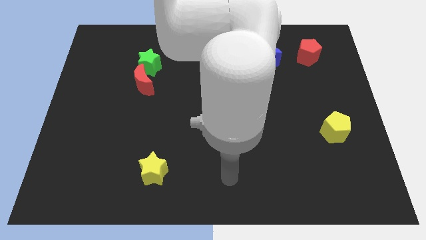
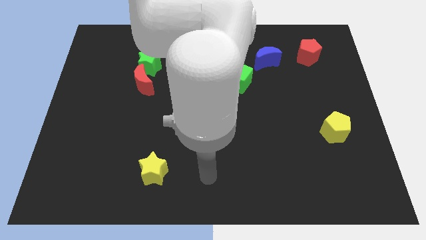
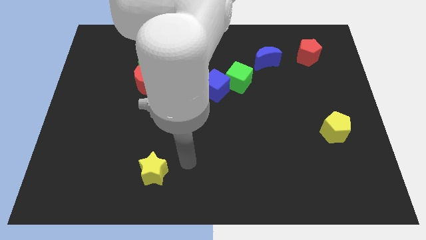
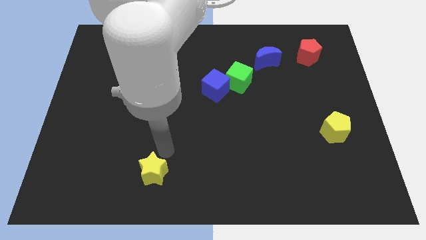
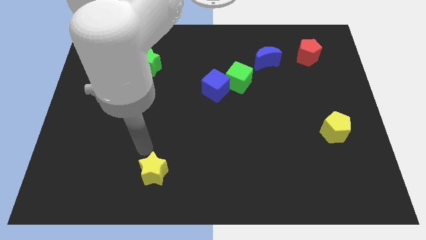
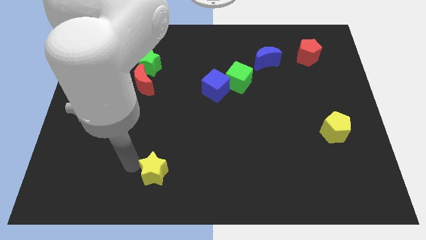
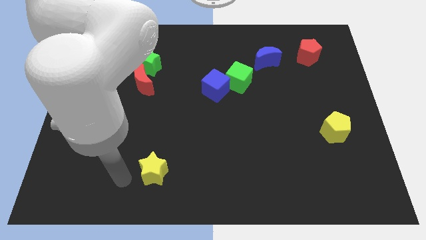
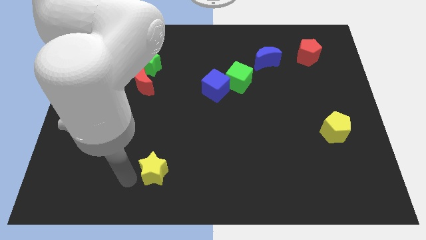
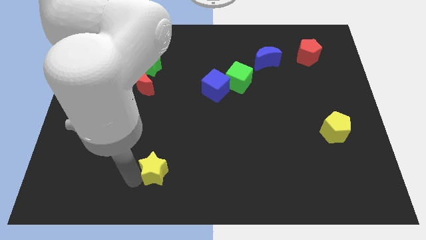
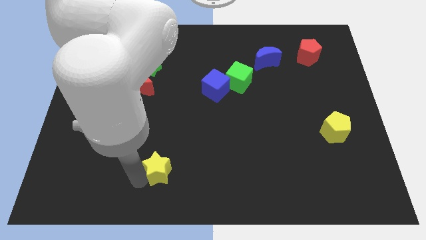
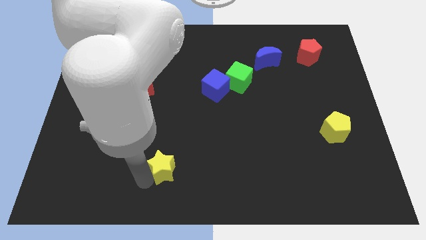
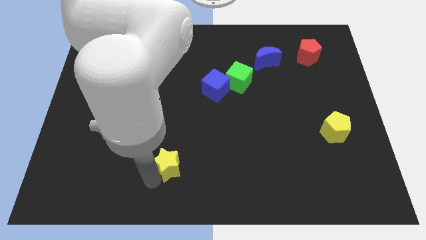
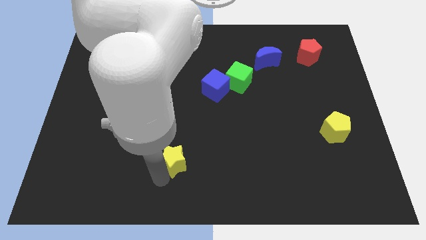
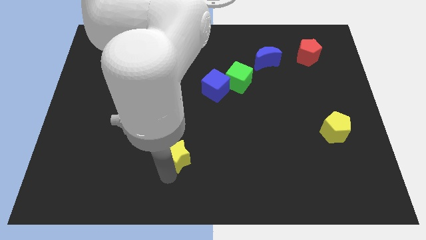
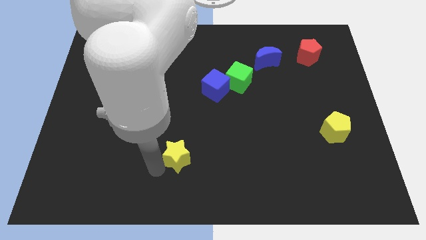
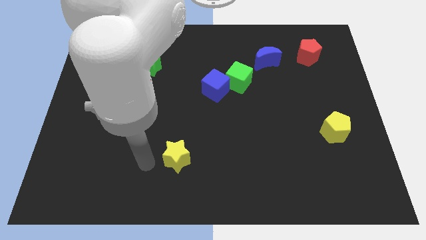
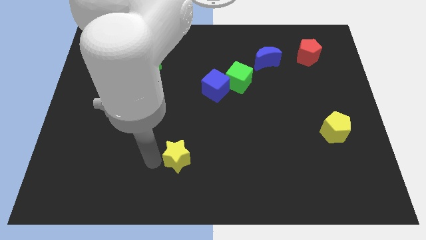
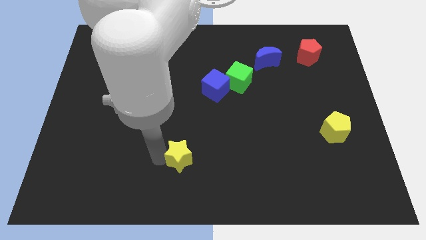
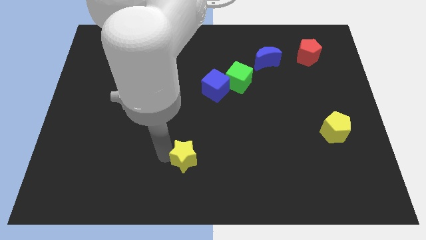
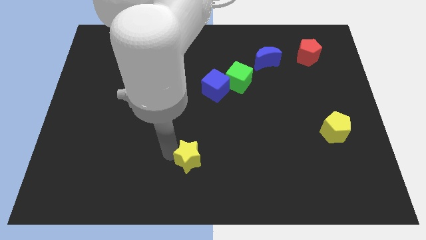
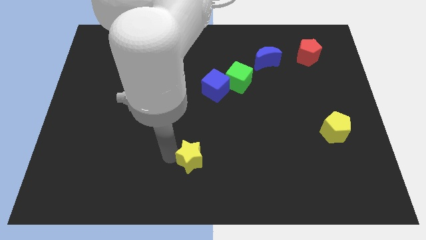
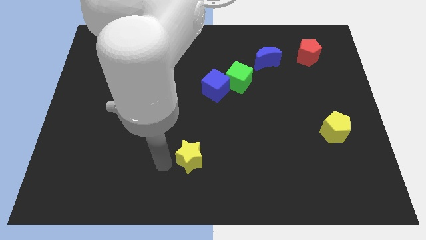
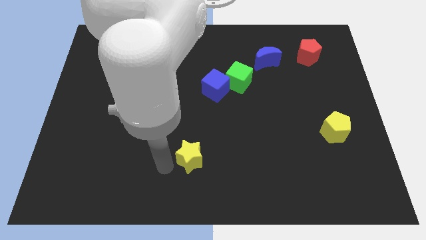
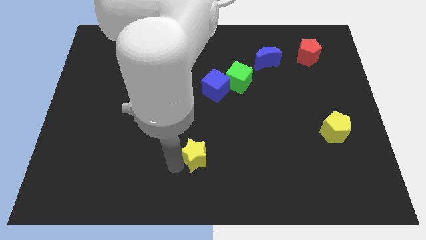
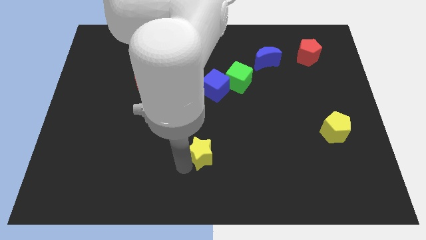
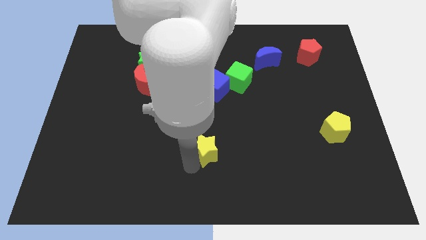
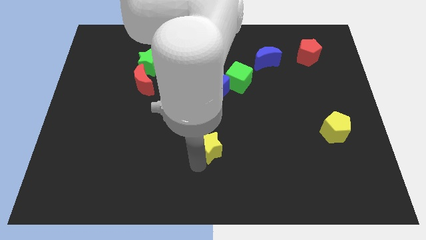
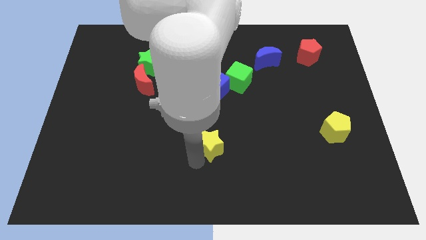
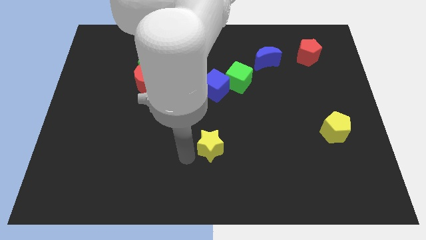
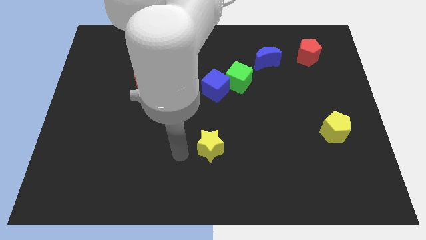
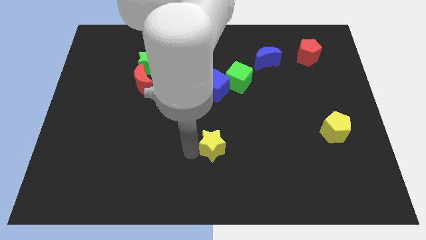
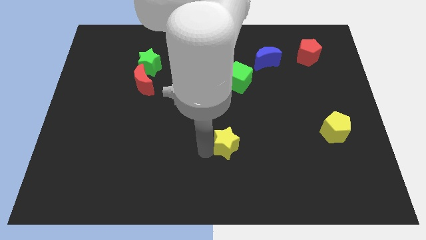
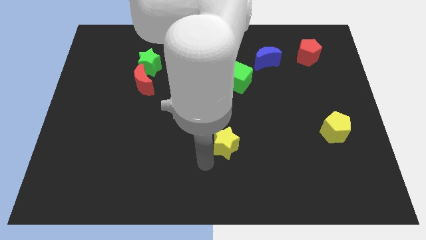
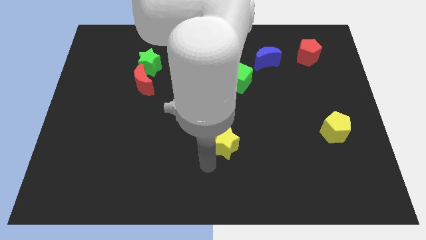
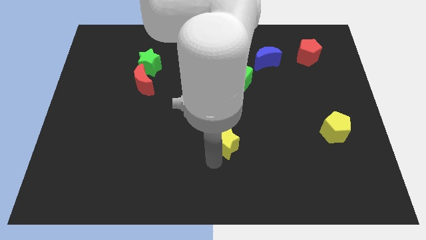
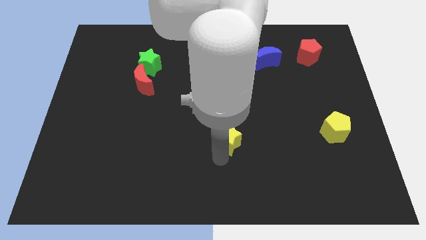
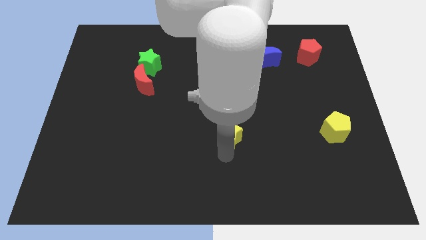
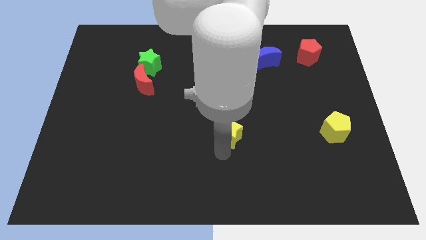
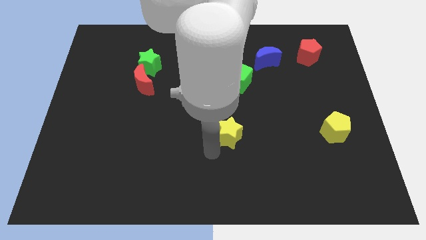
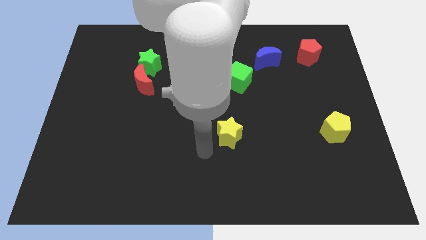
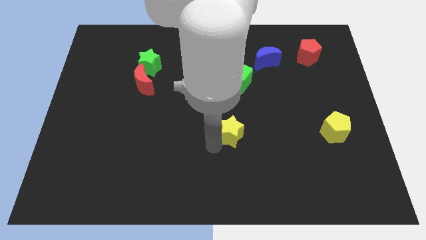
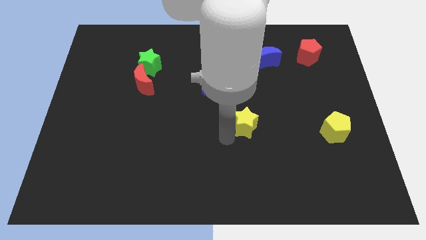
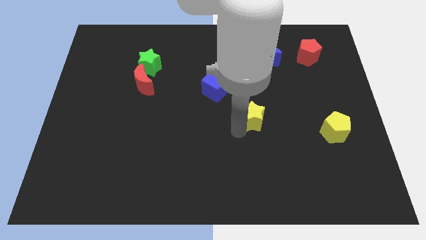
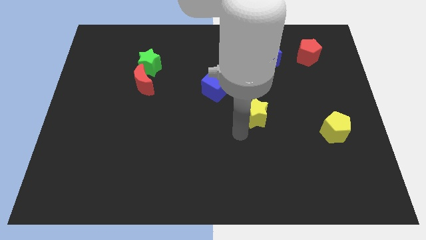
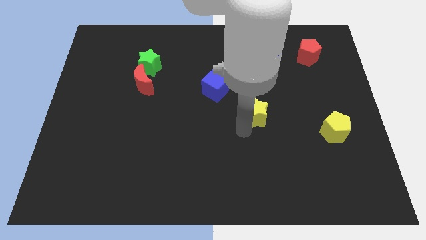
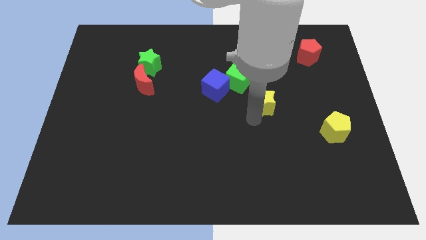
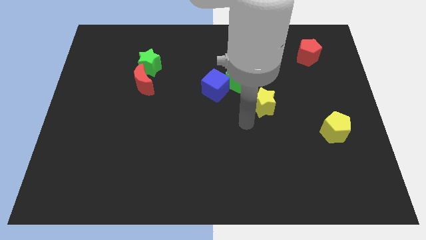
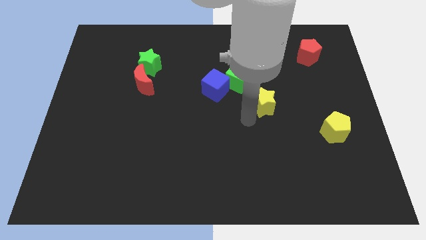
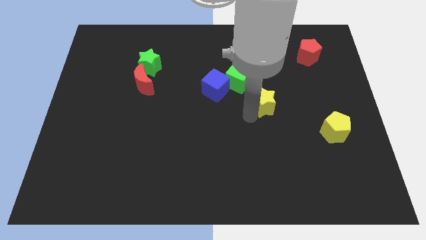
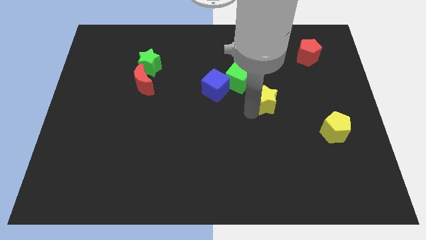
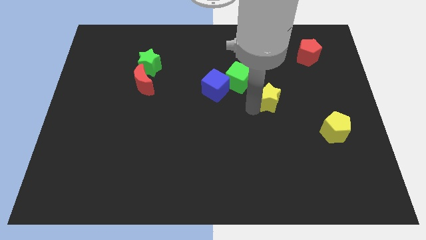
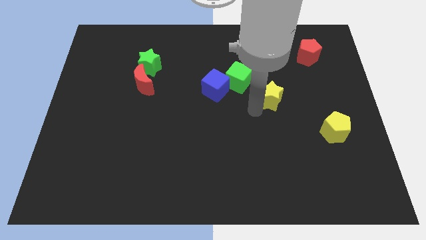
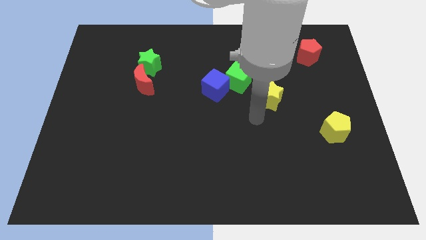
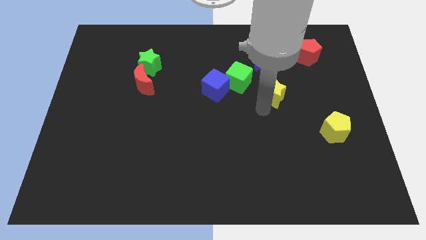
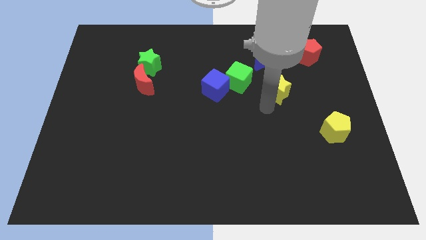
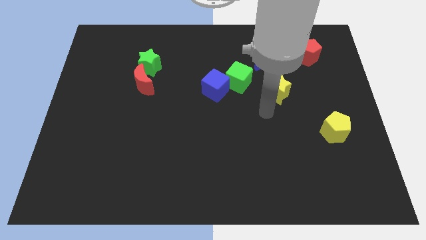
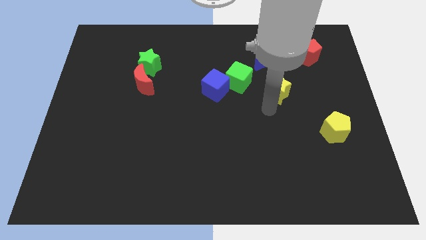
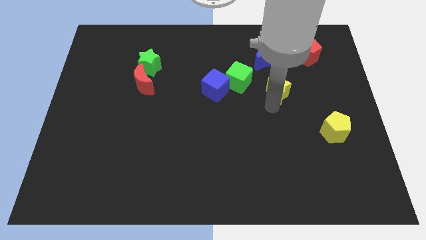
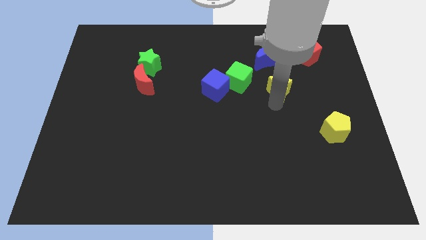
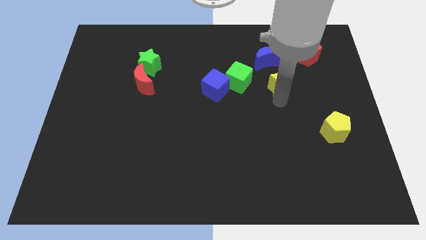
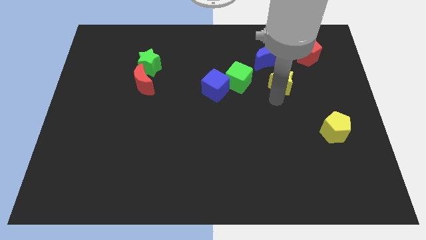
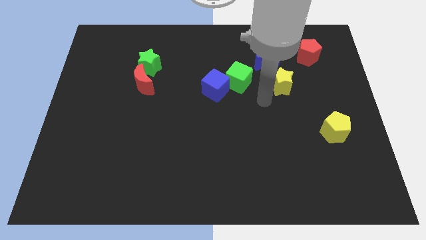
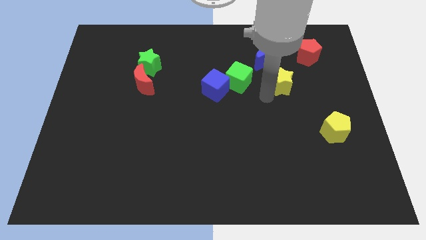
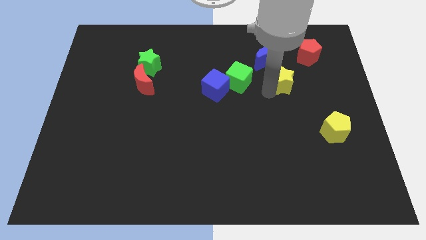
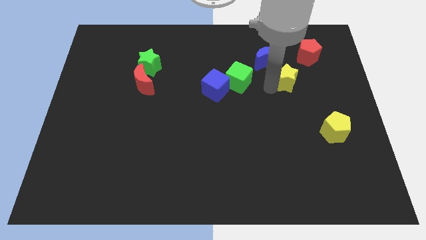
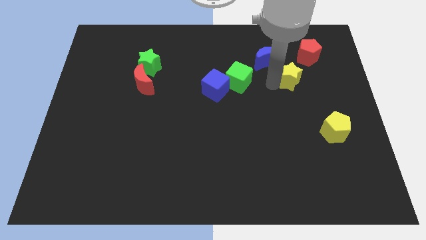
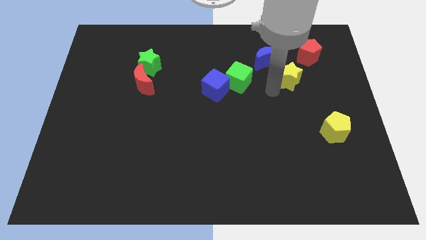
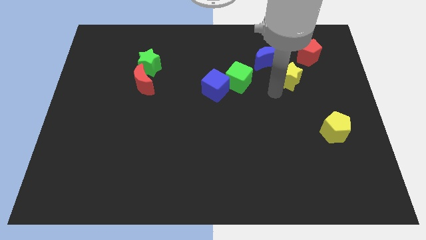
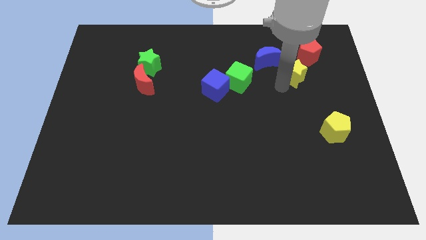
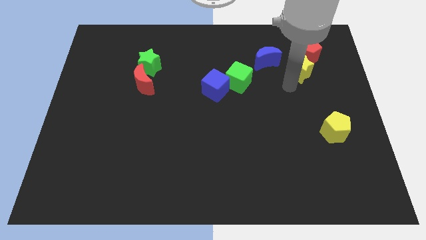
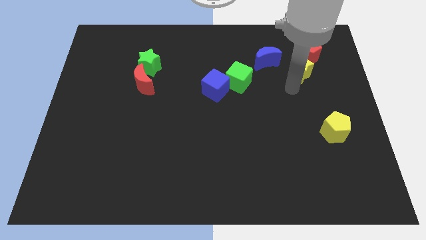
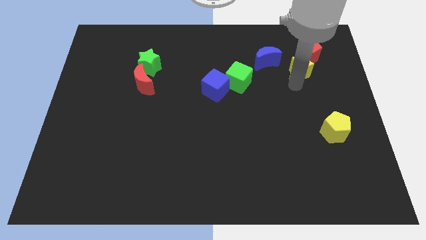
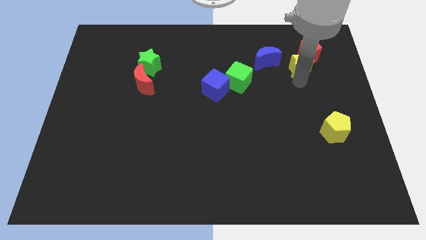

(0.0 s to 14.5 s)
slide the yellow star close to the red pentagon
